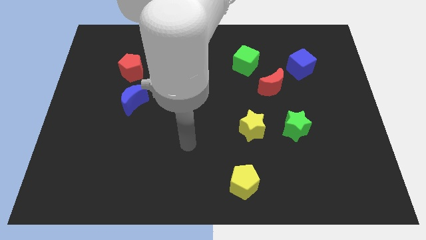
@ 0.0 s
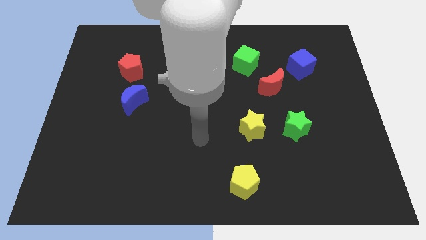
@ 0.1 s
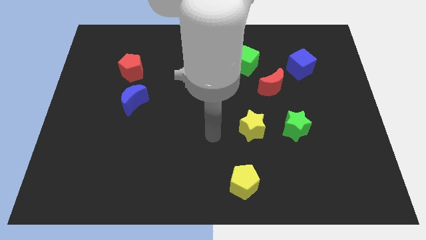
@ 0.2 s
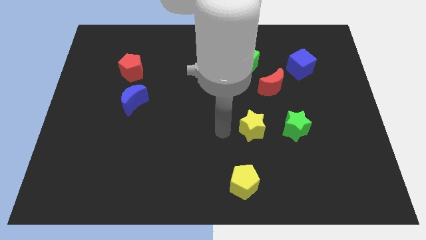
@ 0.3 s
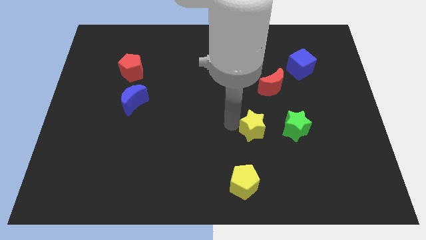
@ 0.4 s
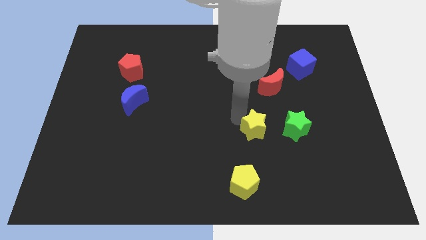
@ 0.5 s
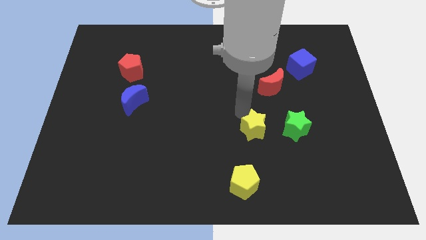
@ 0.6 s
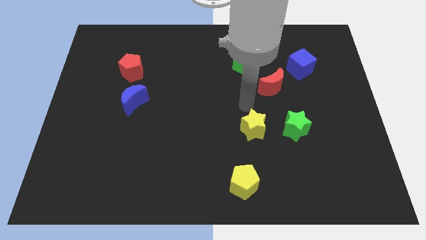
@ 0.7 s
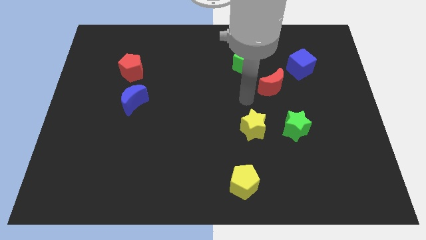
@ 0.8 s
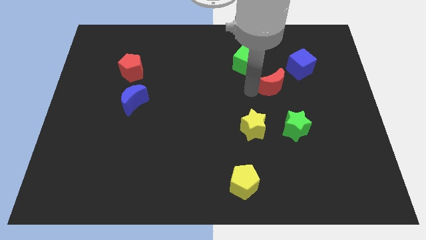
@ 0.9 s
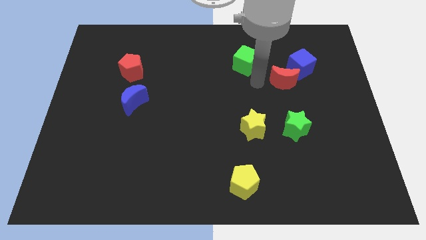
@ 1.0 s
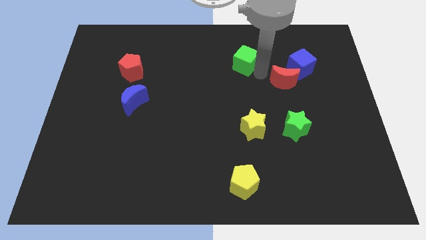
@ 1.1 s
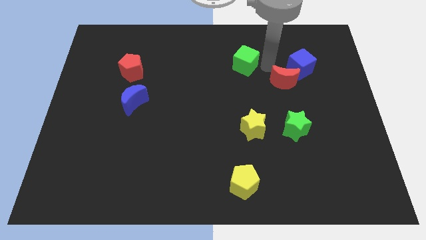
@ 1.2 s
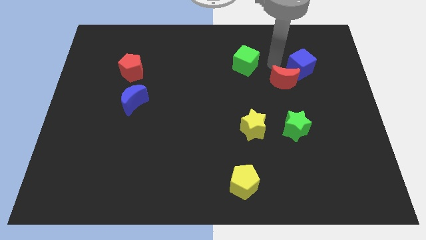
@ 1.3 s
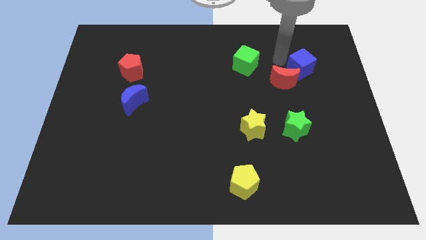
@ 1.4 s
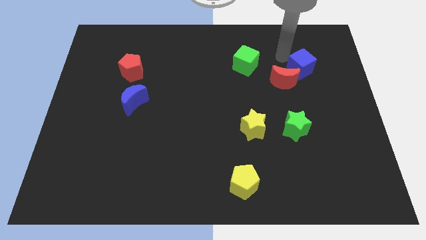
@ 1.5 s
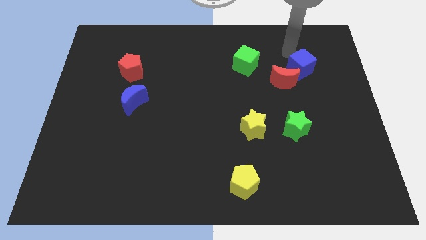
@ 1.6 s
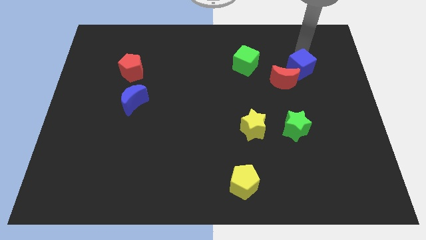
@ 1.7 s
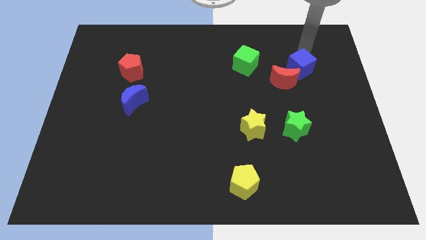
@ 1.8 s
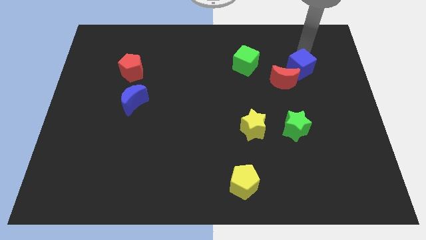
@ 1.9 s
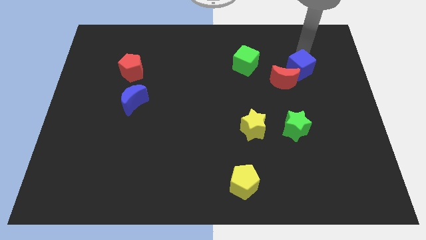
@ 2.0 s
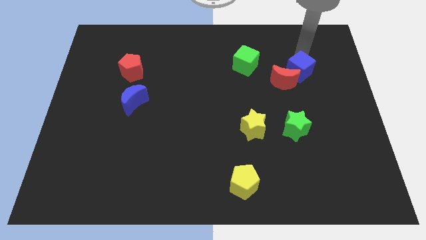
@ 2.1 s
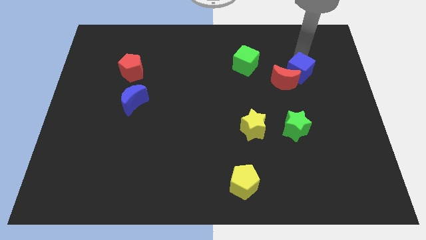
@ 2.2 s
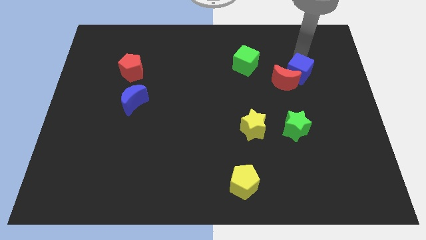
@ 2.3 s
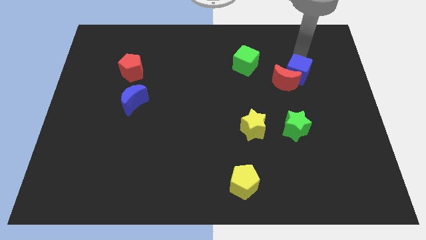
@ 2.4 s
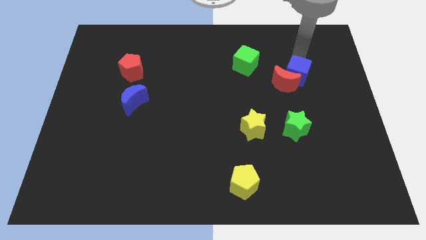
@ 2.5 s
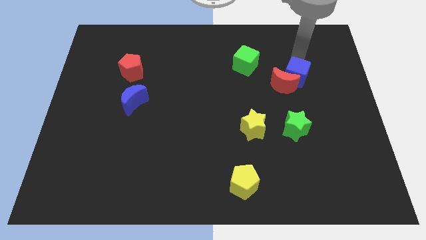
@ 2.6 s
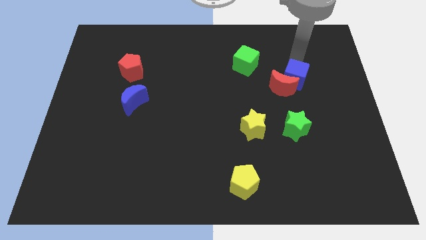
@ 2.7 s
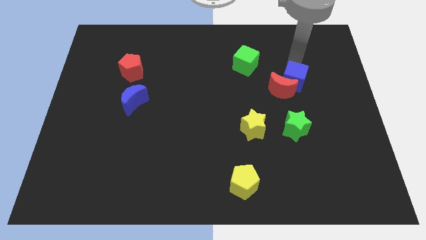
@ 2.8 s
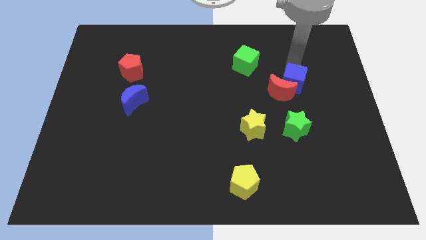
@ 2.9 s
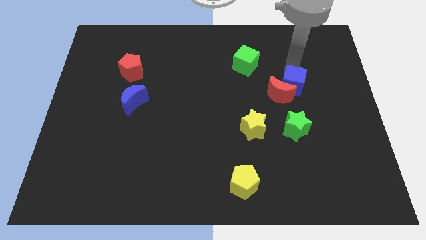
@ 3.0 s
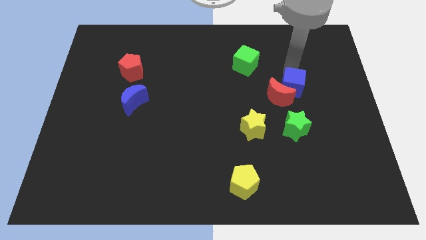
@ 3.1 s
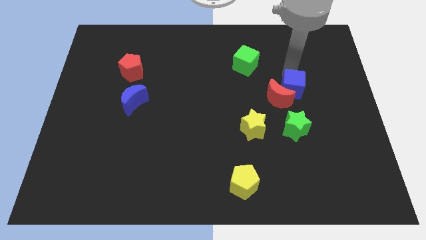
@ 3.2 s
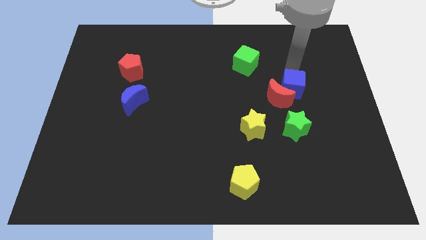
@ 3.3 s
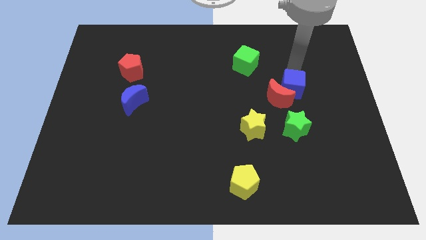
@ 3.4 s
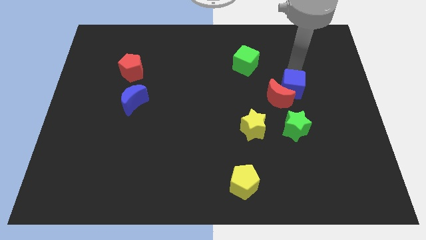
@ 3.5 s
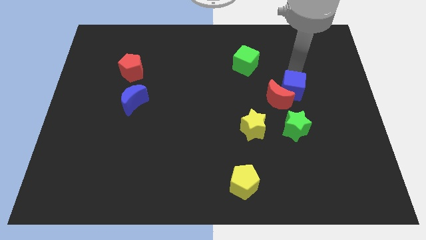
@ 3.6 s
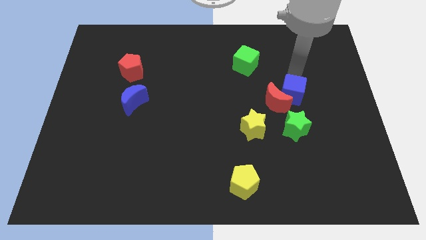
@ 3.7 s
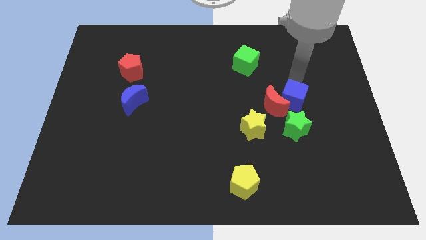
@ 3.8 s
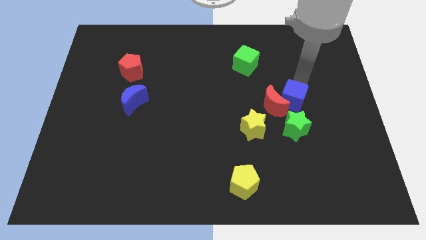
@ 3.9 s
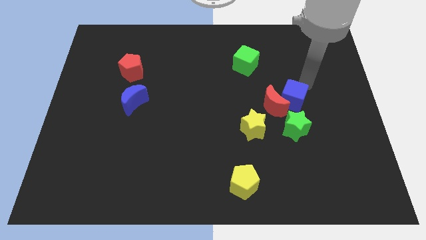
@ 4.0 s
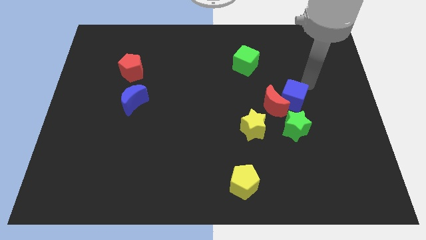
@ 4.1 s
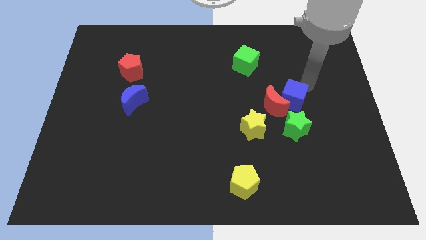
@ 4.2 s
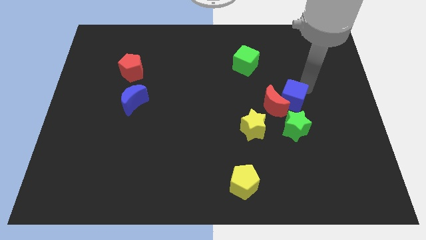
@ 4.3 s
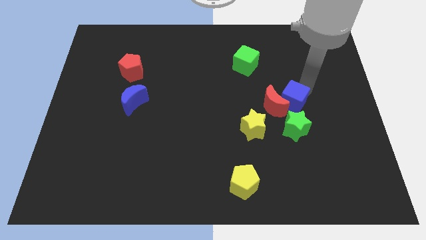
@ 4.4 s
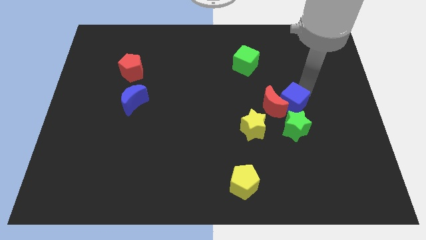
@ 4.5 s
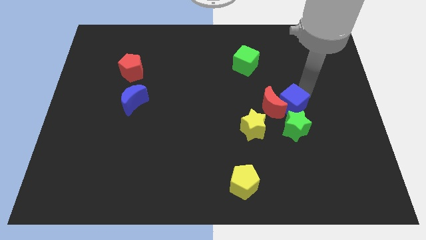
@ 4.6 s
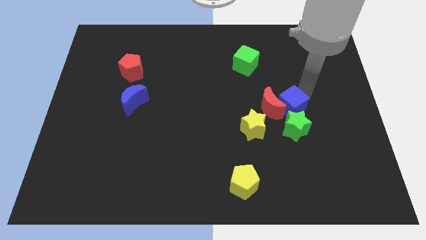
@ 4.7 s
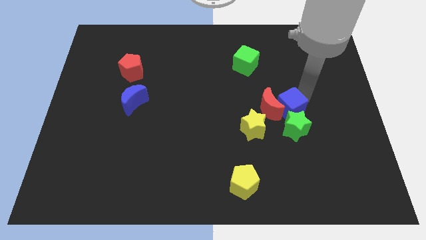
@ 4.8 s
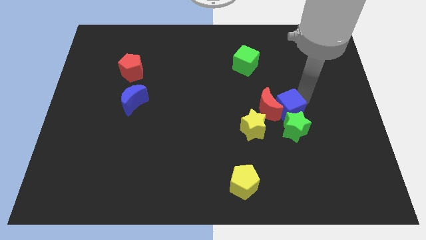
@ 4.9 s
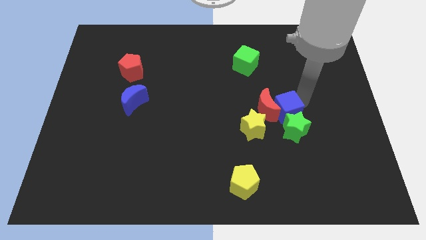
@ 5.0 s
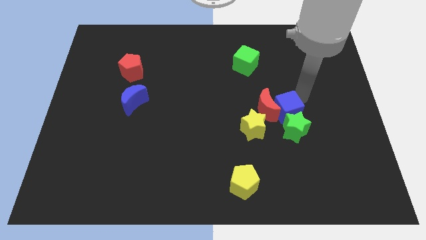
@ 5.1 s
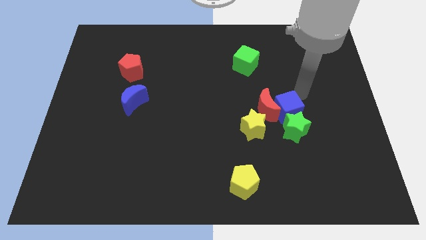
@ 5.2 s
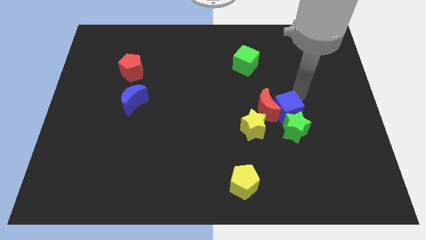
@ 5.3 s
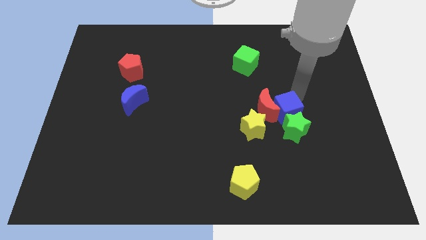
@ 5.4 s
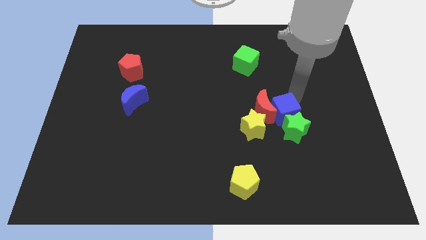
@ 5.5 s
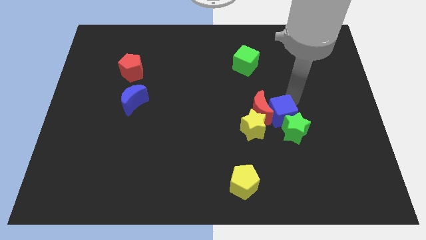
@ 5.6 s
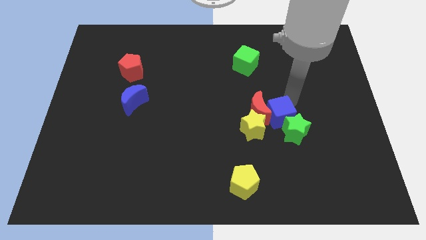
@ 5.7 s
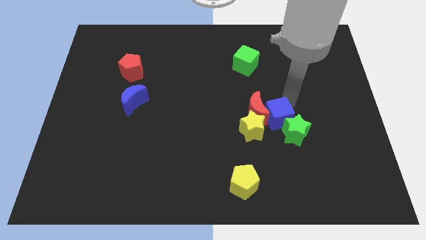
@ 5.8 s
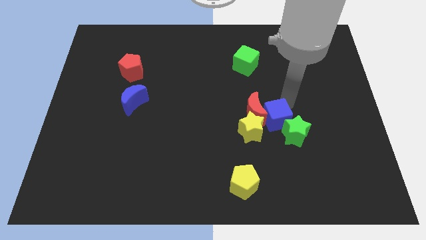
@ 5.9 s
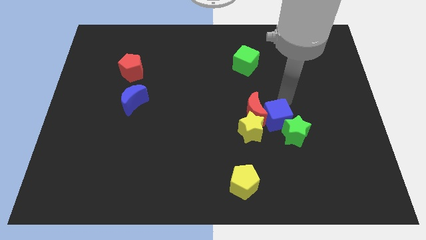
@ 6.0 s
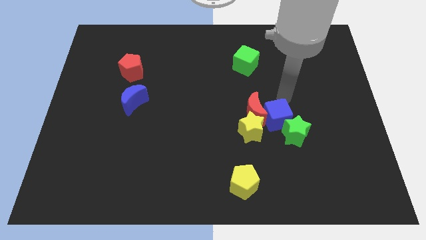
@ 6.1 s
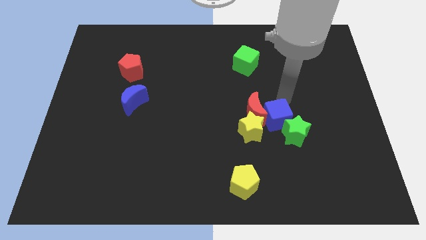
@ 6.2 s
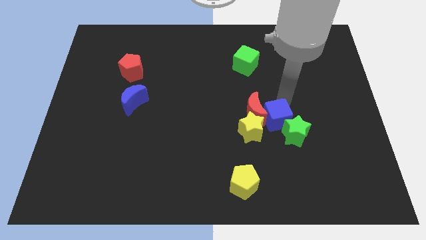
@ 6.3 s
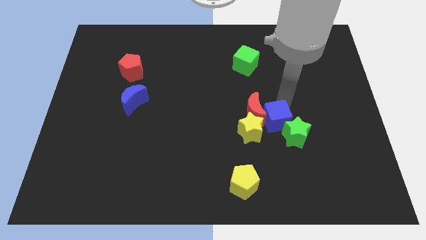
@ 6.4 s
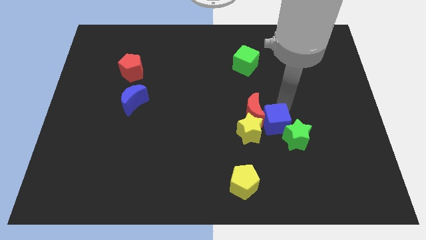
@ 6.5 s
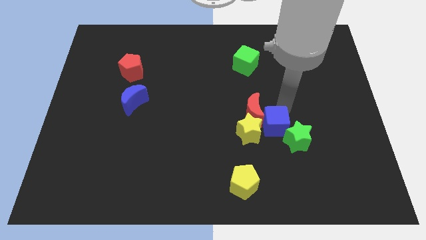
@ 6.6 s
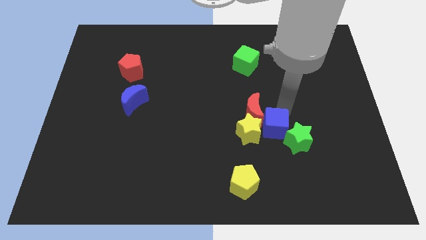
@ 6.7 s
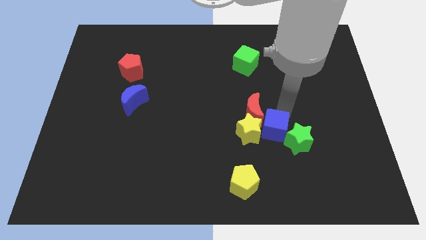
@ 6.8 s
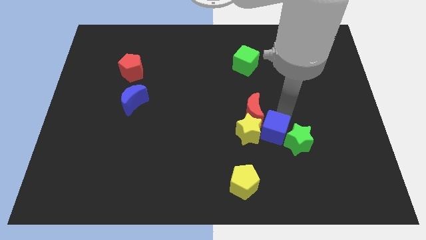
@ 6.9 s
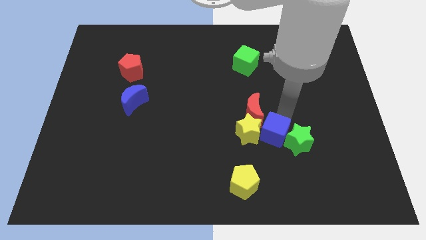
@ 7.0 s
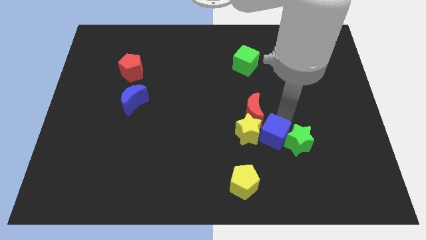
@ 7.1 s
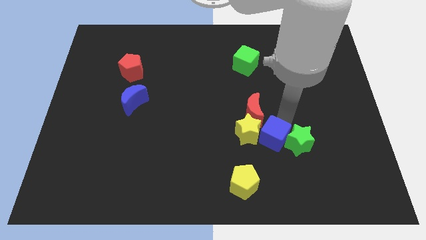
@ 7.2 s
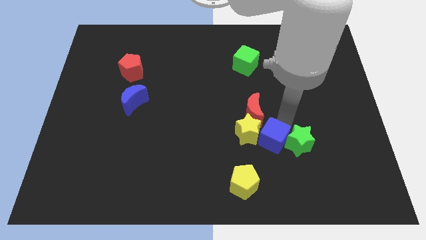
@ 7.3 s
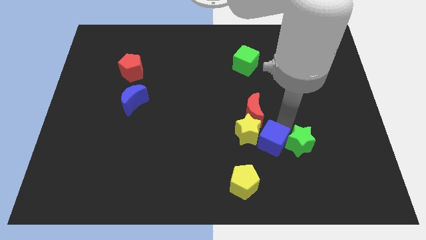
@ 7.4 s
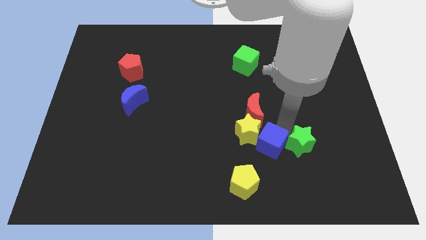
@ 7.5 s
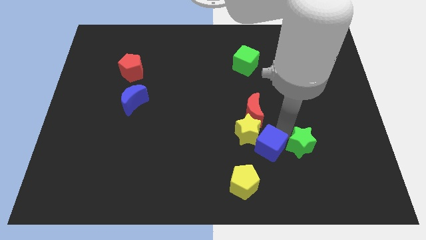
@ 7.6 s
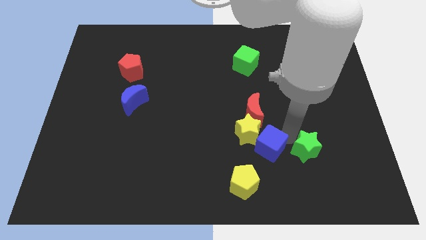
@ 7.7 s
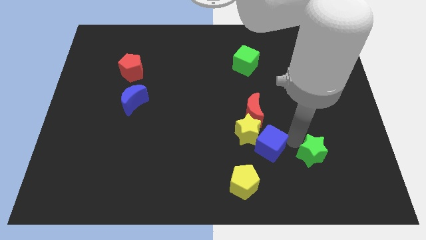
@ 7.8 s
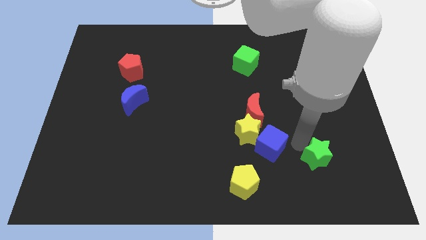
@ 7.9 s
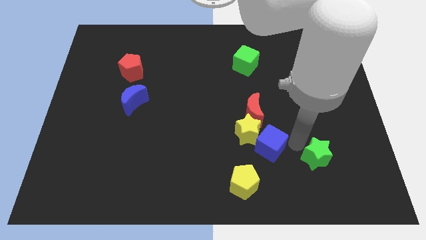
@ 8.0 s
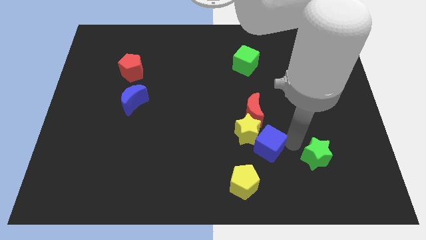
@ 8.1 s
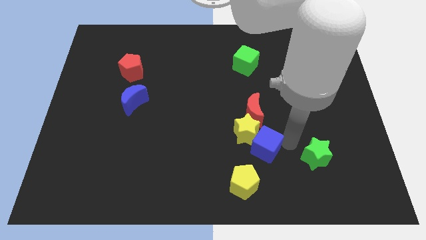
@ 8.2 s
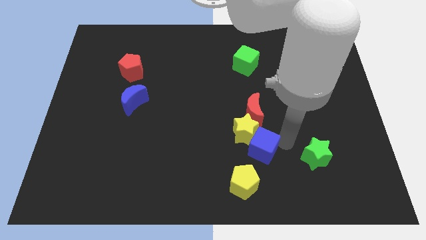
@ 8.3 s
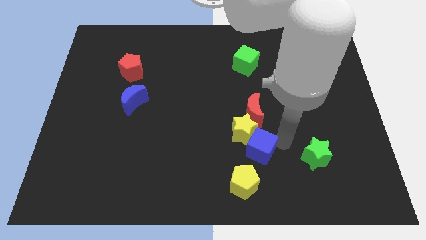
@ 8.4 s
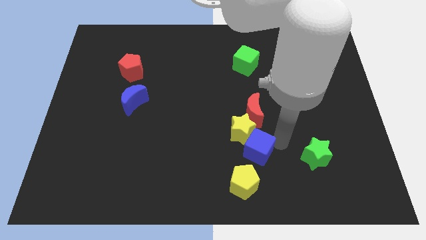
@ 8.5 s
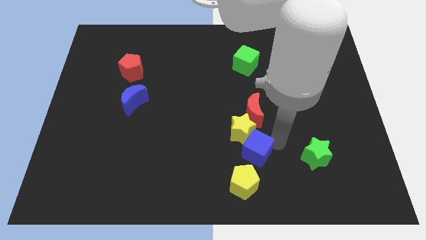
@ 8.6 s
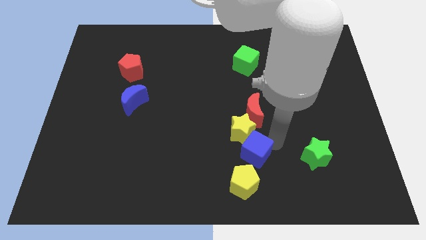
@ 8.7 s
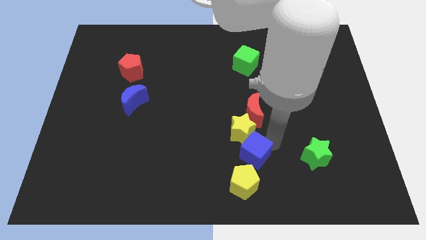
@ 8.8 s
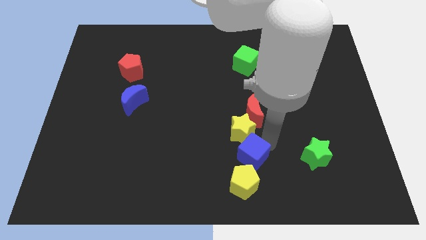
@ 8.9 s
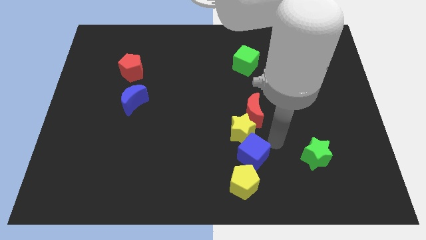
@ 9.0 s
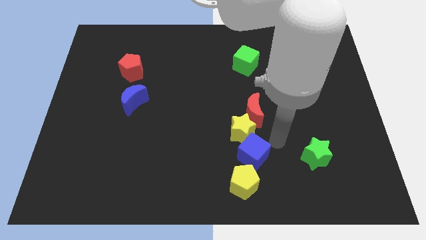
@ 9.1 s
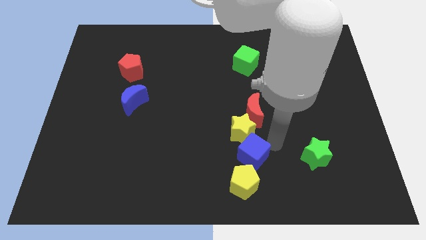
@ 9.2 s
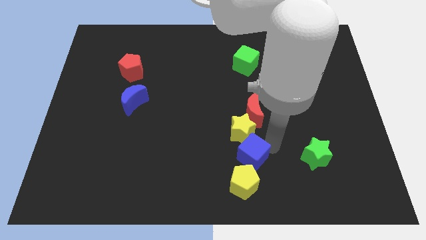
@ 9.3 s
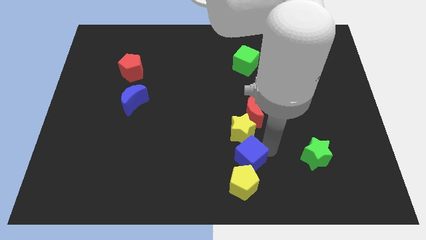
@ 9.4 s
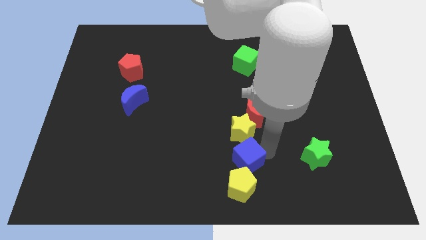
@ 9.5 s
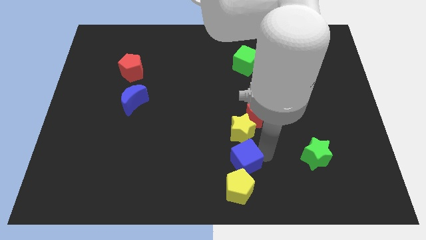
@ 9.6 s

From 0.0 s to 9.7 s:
put the blue cube to the bottom side
